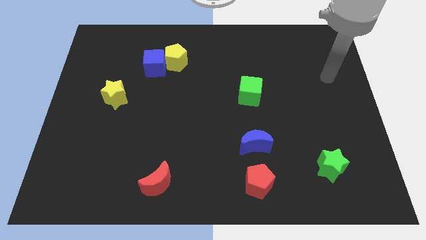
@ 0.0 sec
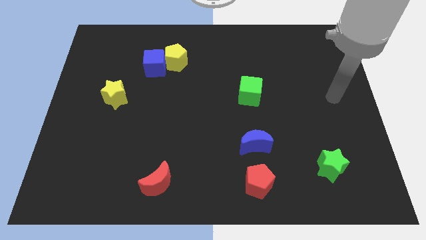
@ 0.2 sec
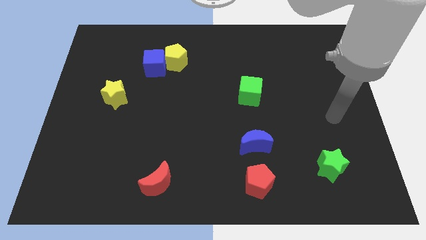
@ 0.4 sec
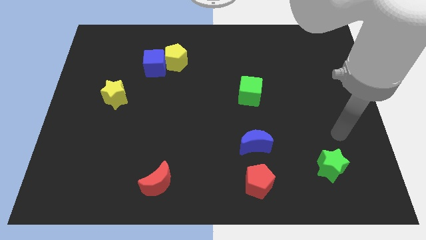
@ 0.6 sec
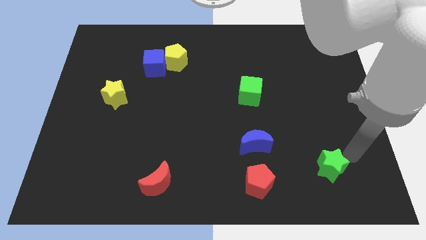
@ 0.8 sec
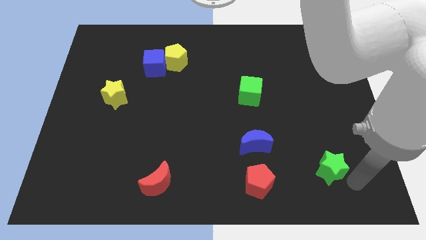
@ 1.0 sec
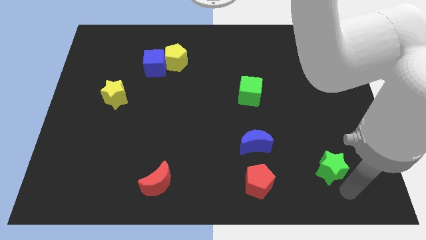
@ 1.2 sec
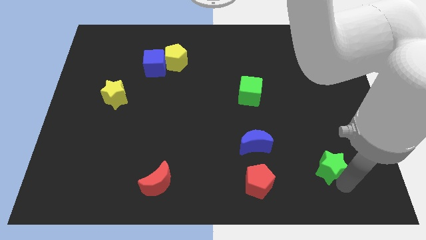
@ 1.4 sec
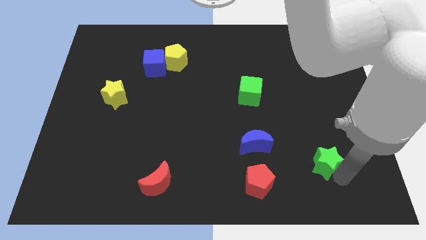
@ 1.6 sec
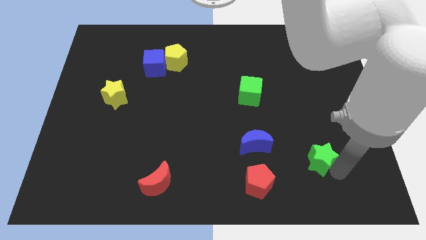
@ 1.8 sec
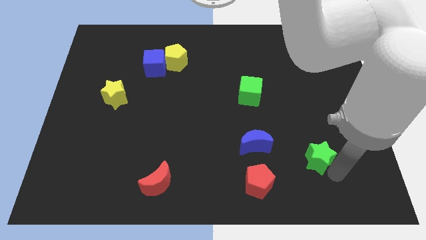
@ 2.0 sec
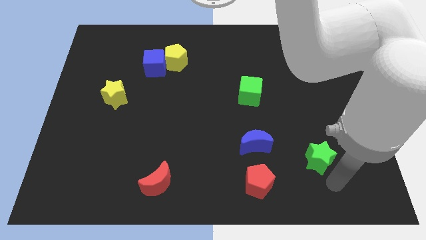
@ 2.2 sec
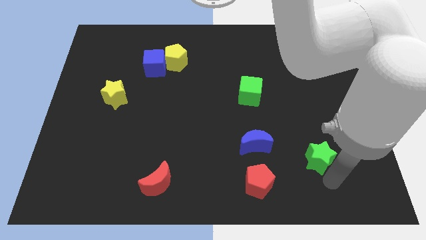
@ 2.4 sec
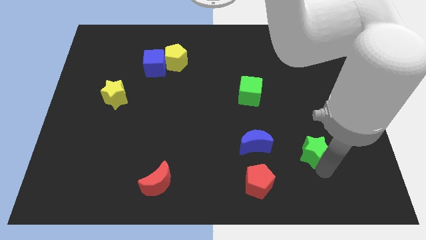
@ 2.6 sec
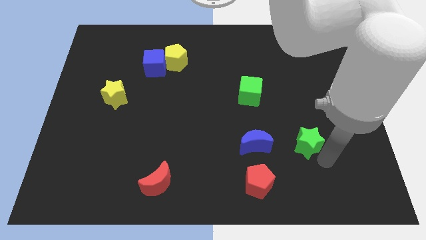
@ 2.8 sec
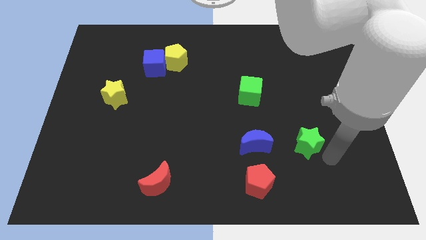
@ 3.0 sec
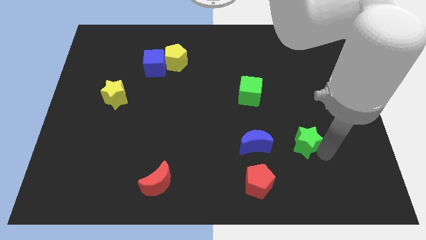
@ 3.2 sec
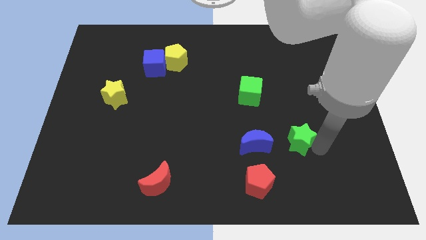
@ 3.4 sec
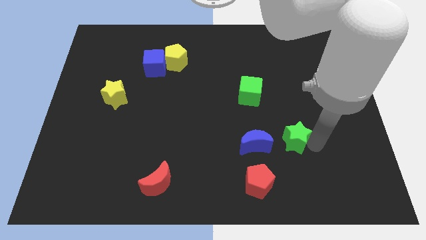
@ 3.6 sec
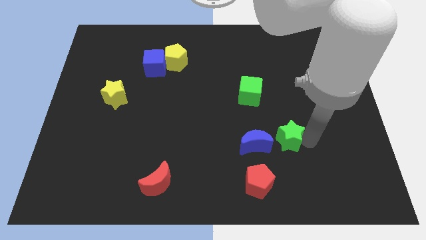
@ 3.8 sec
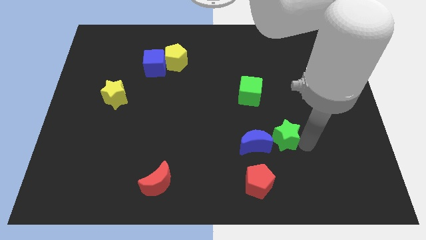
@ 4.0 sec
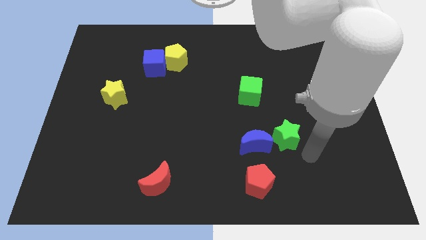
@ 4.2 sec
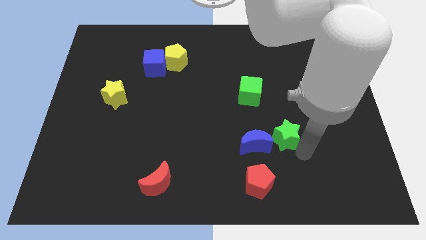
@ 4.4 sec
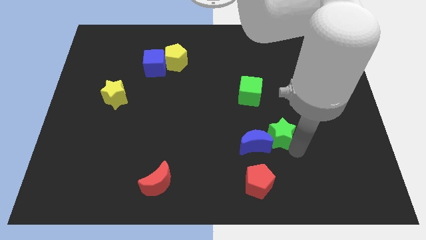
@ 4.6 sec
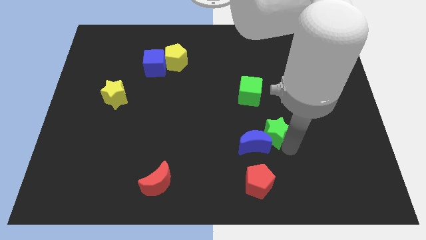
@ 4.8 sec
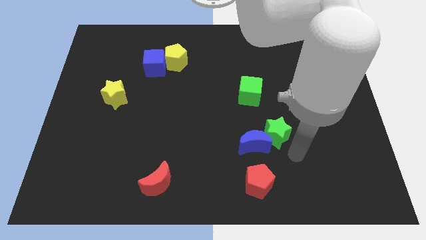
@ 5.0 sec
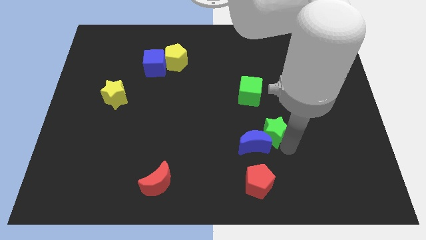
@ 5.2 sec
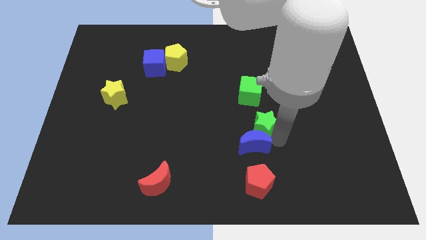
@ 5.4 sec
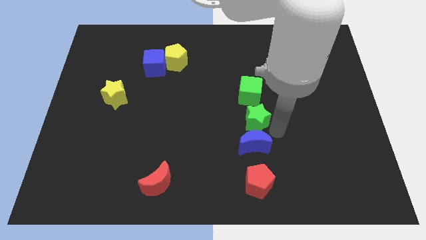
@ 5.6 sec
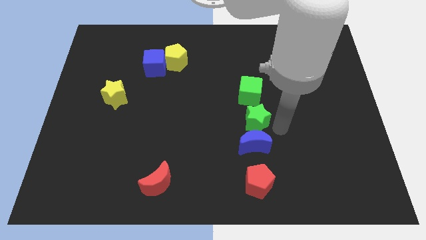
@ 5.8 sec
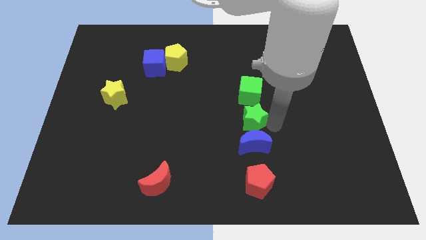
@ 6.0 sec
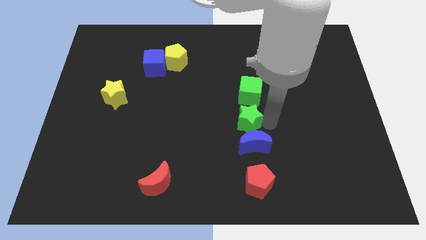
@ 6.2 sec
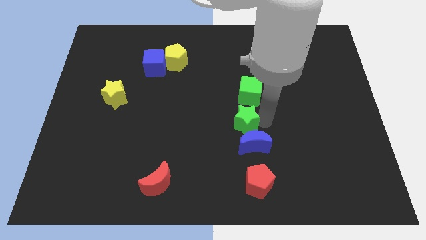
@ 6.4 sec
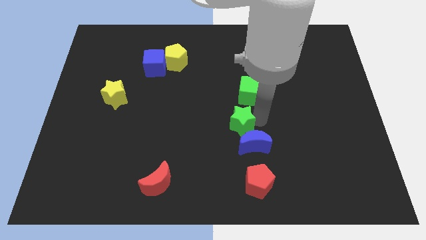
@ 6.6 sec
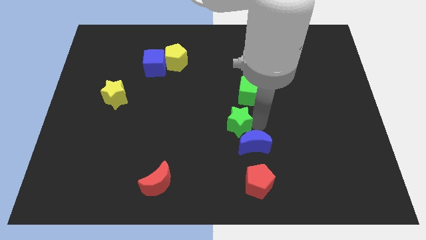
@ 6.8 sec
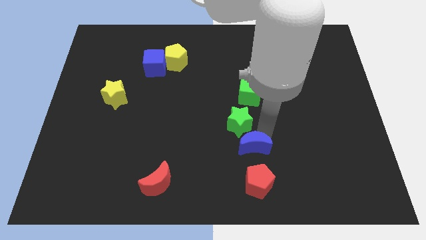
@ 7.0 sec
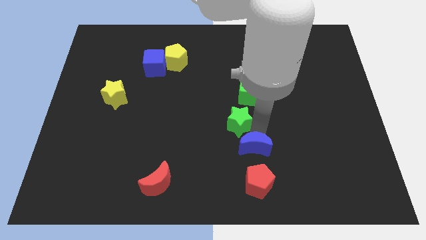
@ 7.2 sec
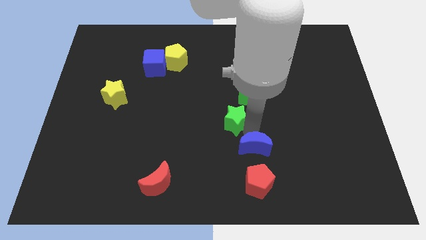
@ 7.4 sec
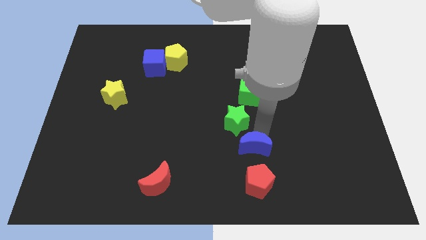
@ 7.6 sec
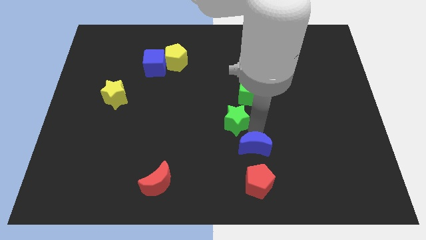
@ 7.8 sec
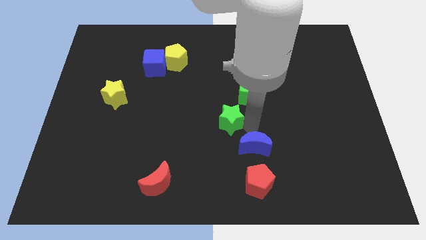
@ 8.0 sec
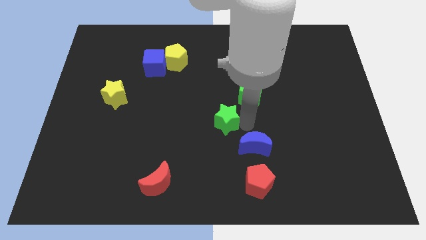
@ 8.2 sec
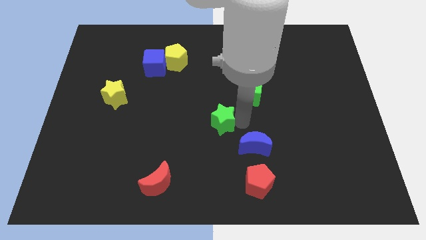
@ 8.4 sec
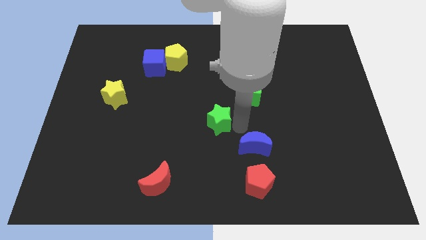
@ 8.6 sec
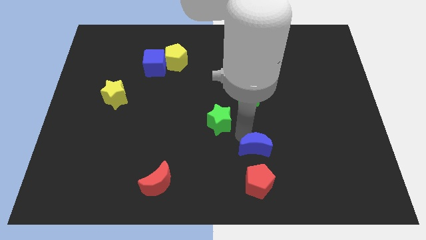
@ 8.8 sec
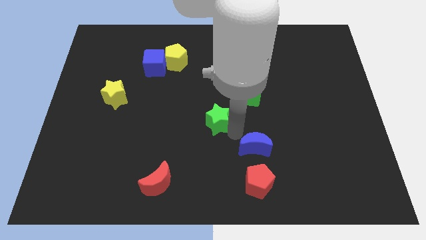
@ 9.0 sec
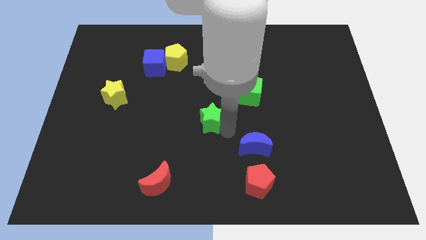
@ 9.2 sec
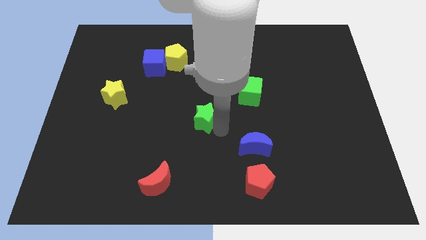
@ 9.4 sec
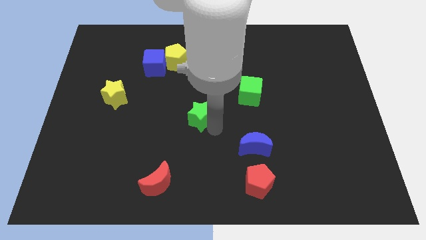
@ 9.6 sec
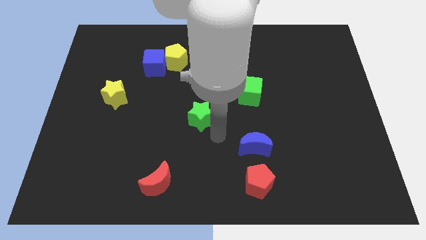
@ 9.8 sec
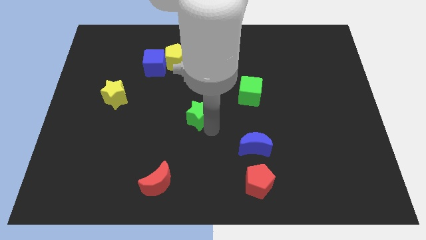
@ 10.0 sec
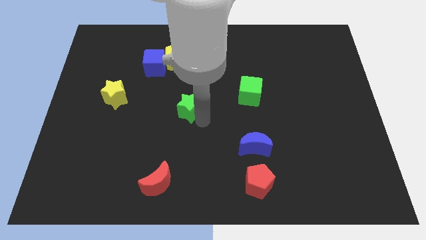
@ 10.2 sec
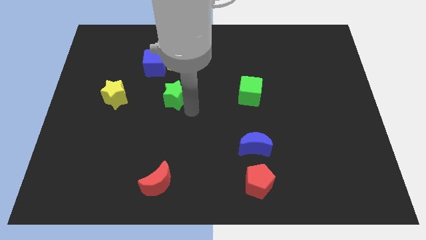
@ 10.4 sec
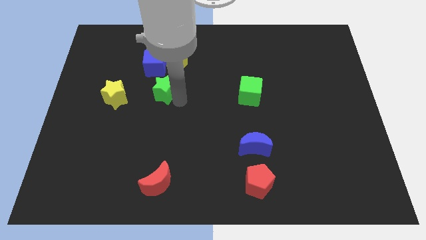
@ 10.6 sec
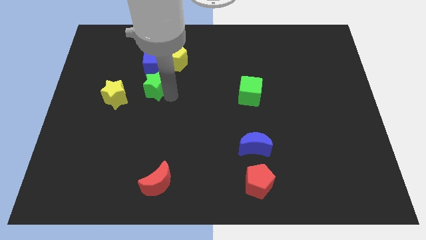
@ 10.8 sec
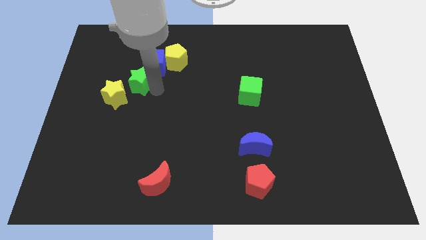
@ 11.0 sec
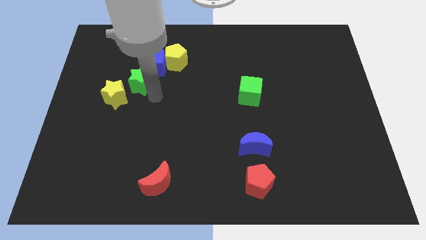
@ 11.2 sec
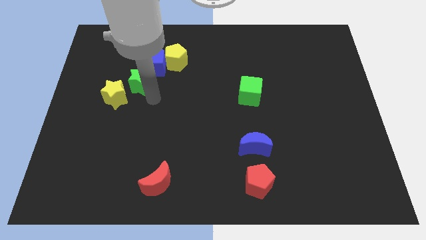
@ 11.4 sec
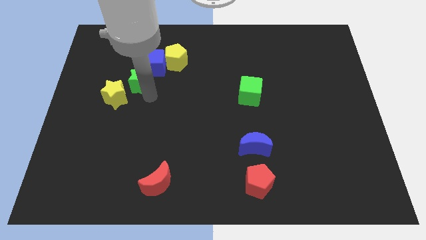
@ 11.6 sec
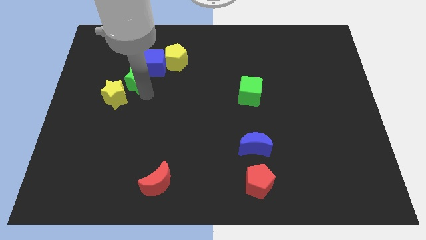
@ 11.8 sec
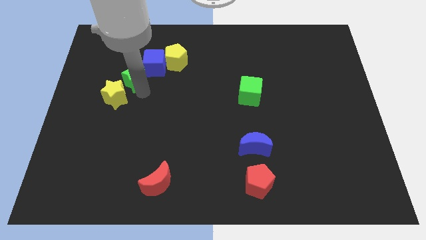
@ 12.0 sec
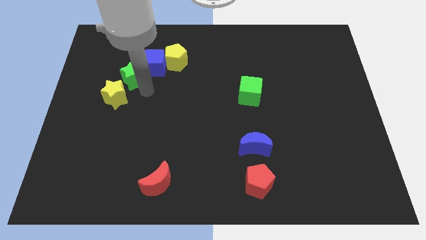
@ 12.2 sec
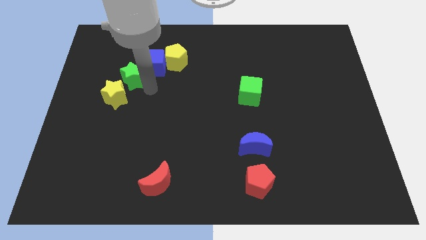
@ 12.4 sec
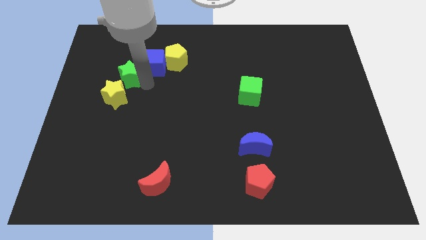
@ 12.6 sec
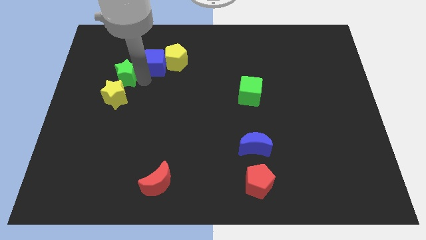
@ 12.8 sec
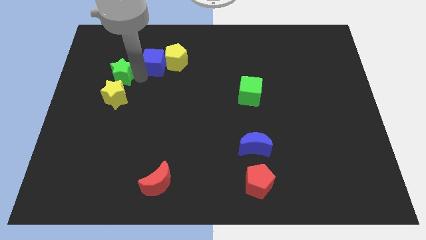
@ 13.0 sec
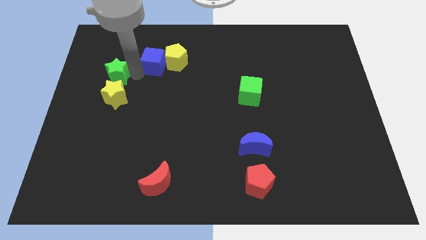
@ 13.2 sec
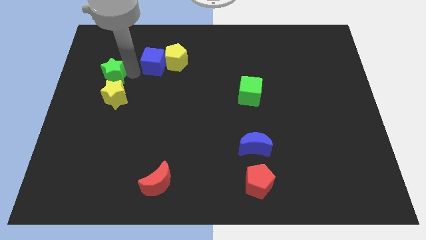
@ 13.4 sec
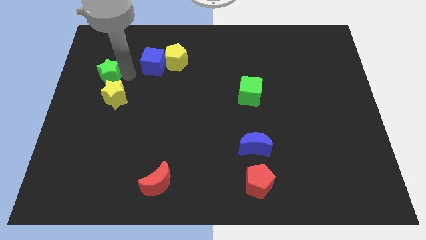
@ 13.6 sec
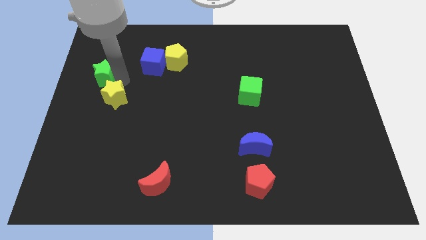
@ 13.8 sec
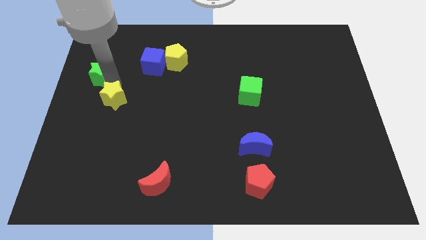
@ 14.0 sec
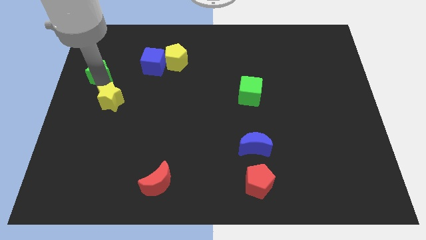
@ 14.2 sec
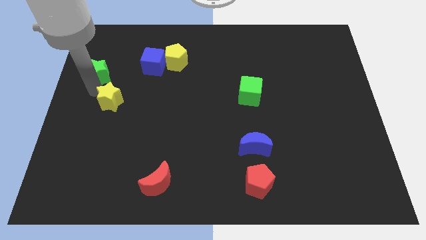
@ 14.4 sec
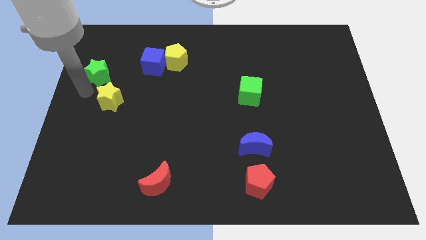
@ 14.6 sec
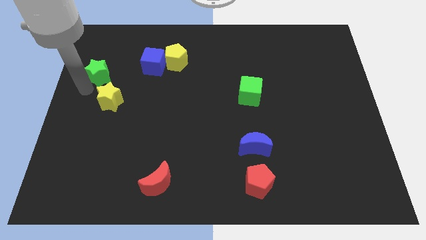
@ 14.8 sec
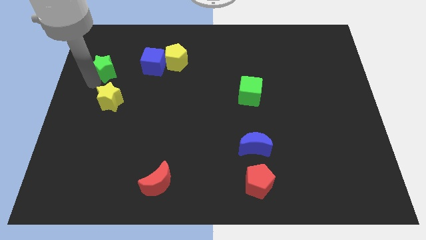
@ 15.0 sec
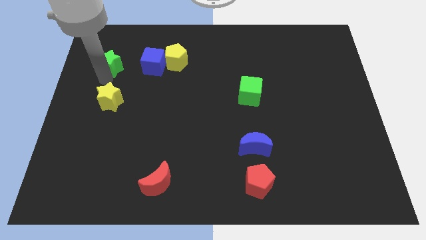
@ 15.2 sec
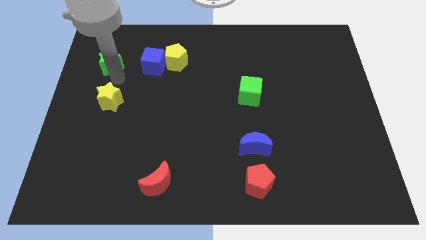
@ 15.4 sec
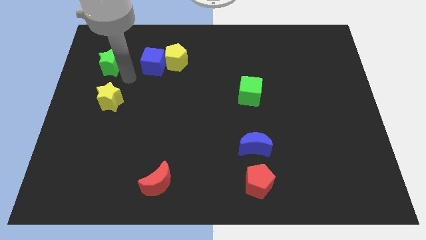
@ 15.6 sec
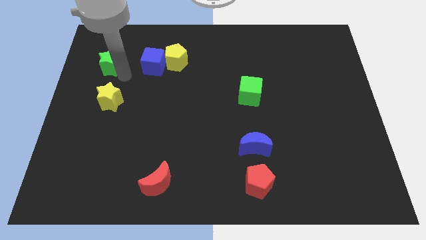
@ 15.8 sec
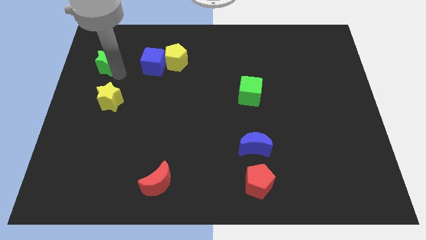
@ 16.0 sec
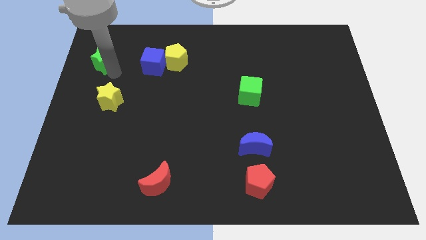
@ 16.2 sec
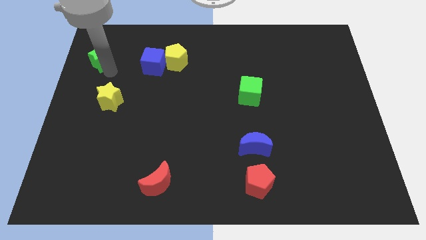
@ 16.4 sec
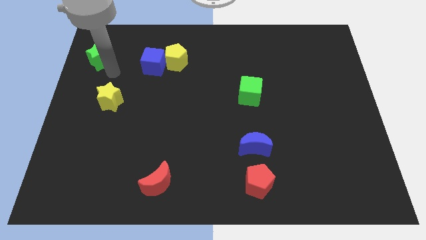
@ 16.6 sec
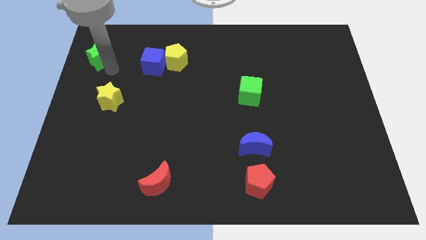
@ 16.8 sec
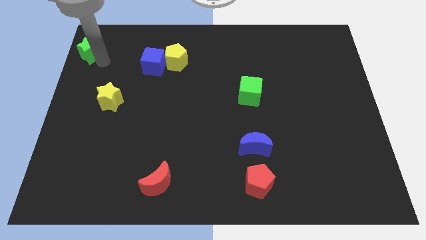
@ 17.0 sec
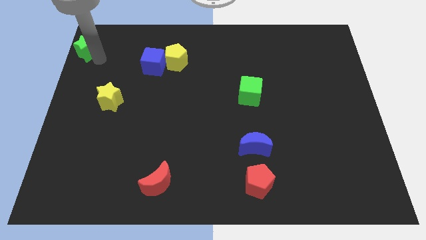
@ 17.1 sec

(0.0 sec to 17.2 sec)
push the green star to the top left of the board
